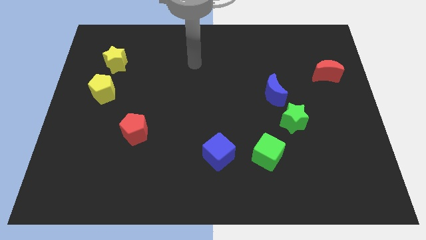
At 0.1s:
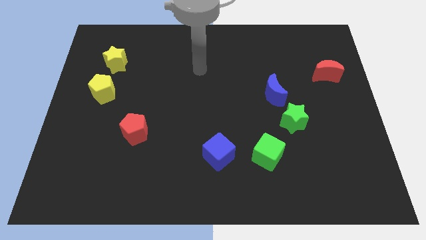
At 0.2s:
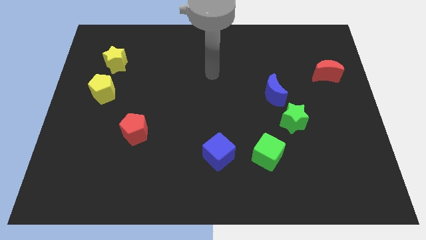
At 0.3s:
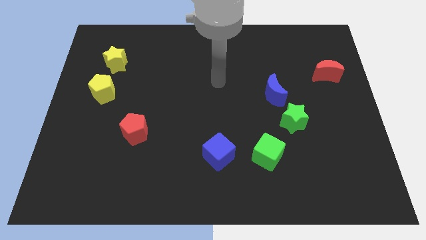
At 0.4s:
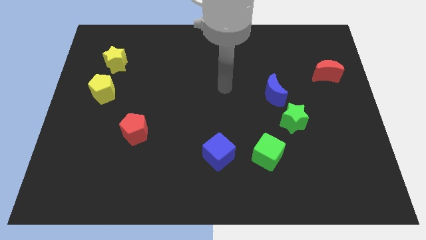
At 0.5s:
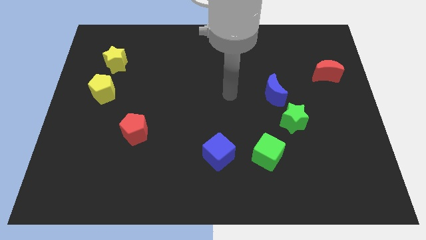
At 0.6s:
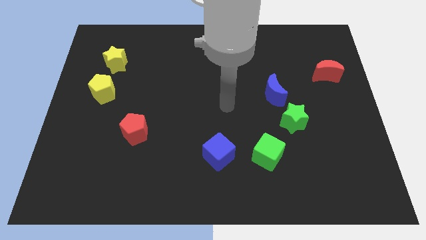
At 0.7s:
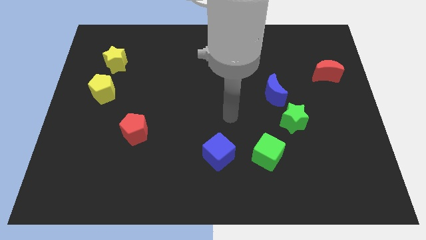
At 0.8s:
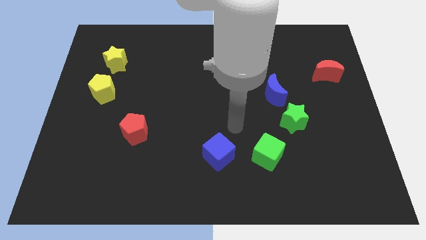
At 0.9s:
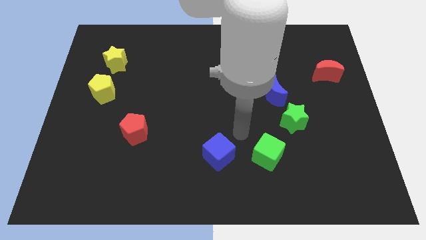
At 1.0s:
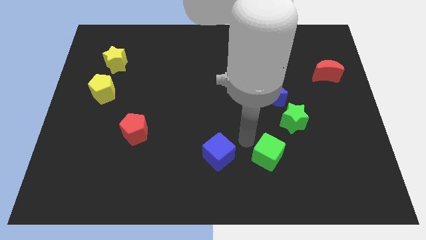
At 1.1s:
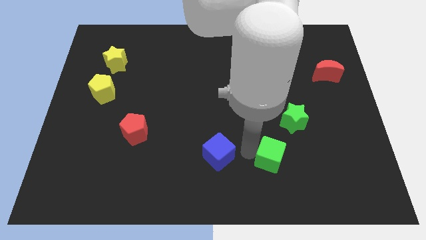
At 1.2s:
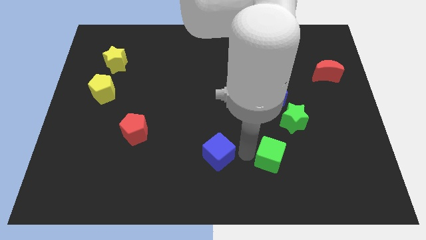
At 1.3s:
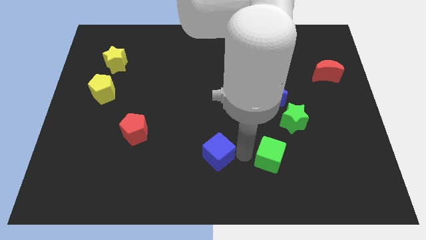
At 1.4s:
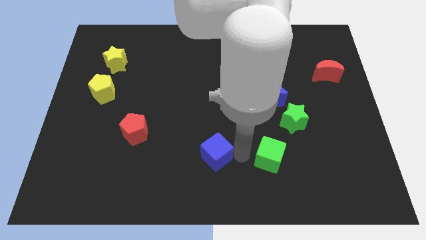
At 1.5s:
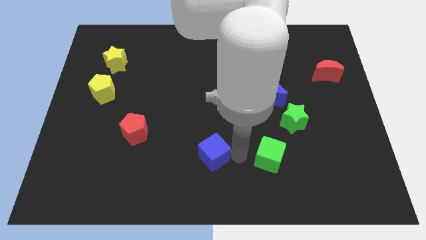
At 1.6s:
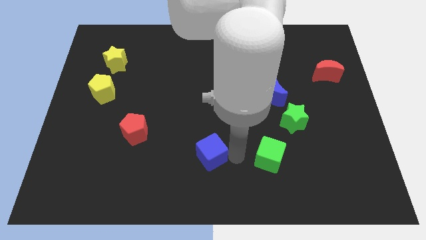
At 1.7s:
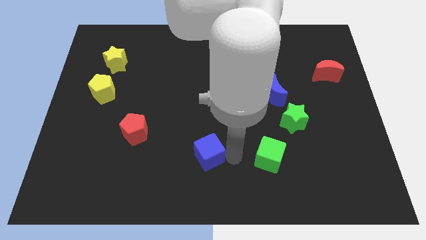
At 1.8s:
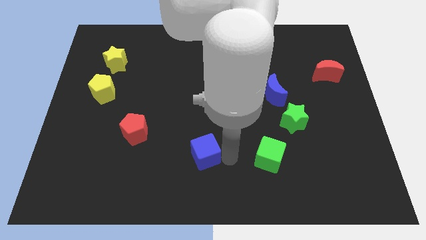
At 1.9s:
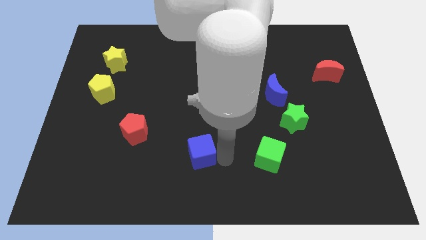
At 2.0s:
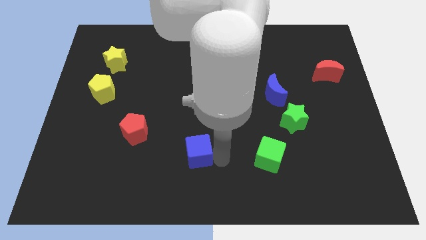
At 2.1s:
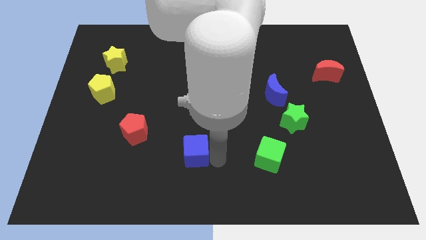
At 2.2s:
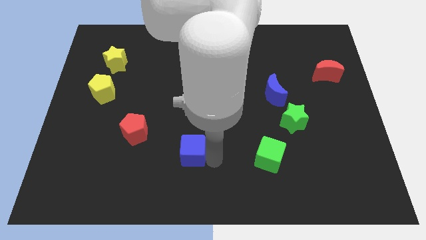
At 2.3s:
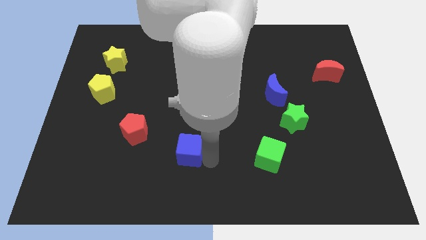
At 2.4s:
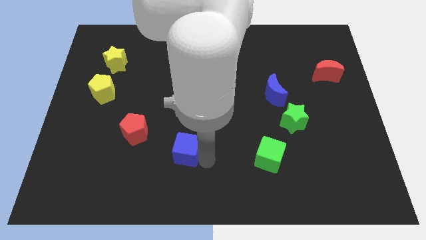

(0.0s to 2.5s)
slide the blue cube left slightly

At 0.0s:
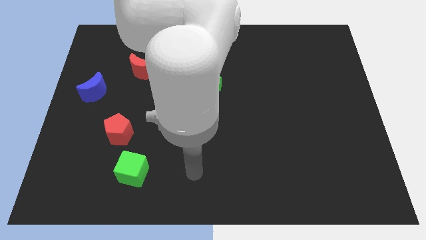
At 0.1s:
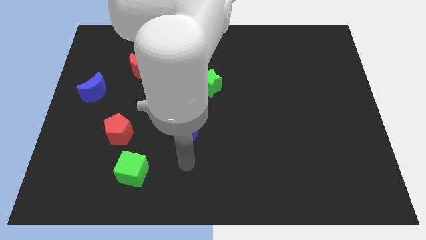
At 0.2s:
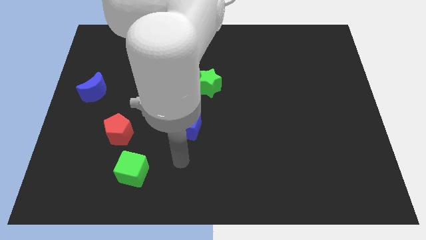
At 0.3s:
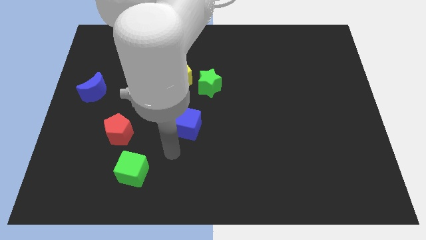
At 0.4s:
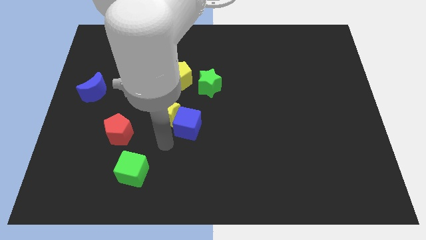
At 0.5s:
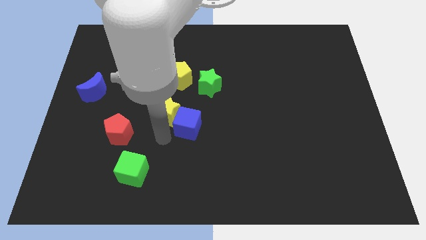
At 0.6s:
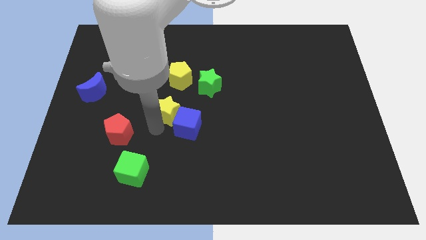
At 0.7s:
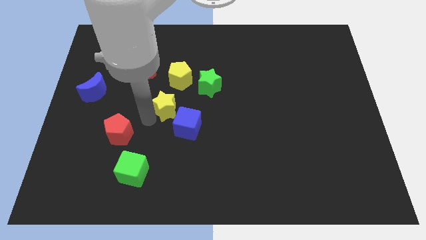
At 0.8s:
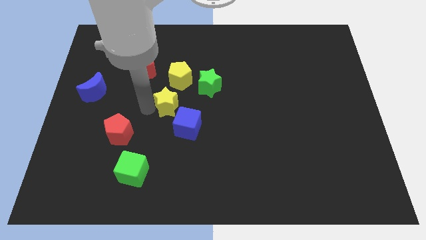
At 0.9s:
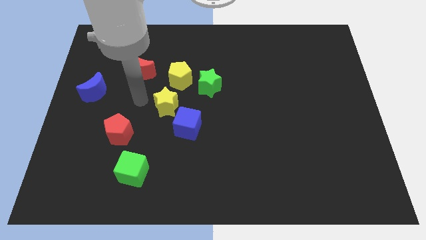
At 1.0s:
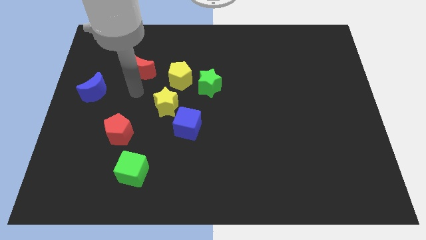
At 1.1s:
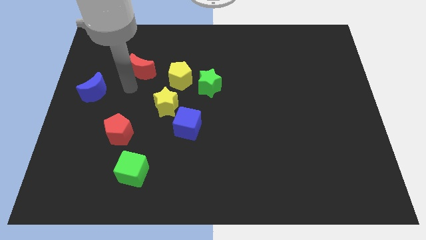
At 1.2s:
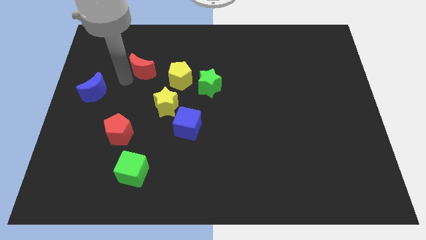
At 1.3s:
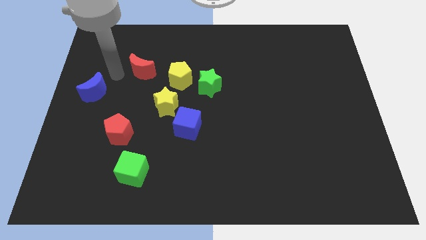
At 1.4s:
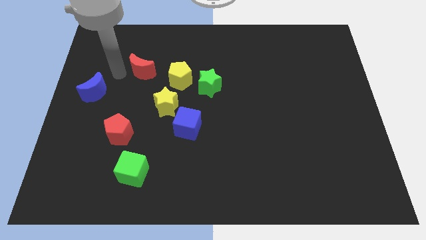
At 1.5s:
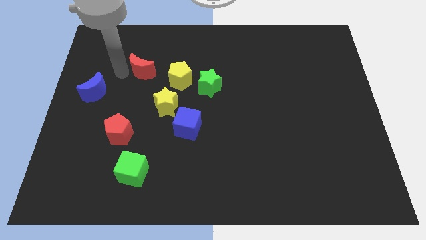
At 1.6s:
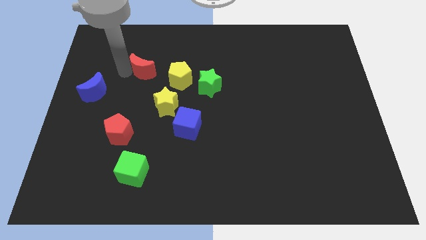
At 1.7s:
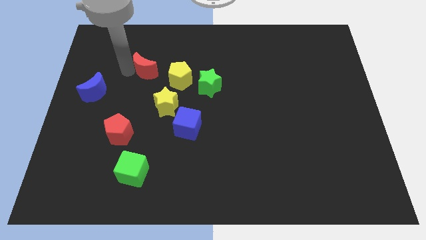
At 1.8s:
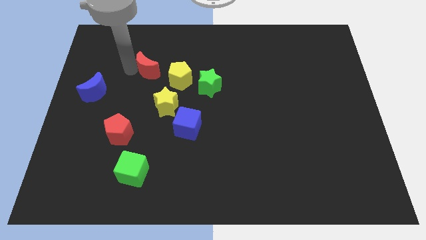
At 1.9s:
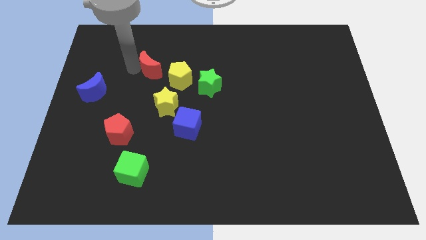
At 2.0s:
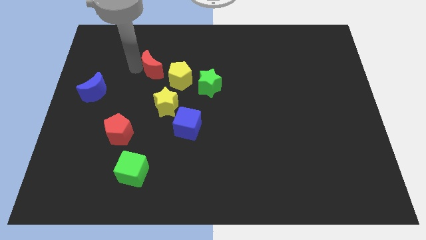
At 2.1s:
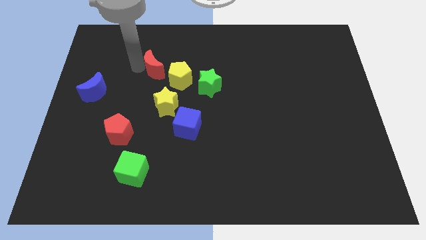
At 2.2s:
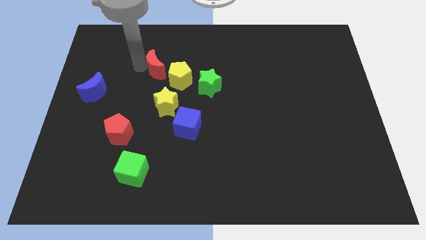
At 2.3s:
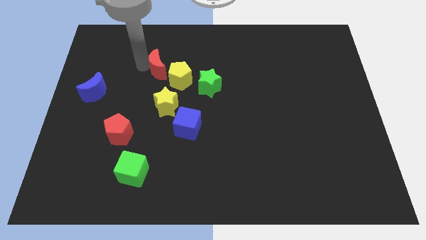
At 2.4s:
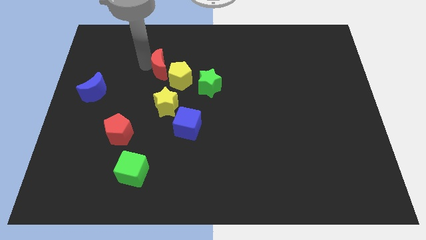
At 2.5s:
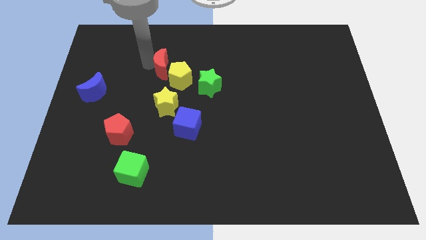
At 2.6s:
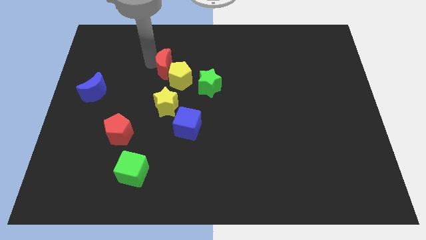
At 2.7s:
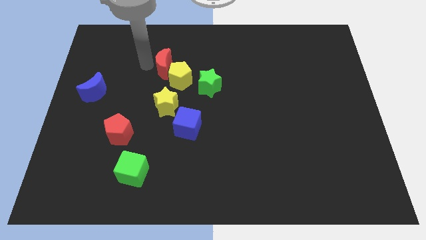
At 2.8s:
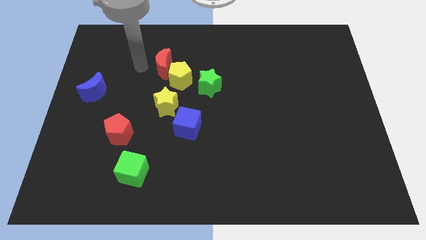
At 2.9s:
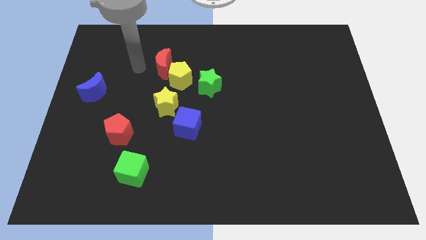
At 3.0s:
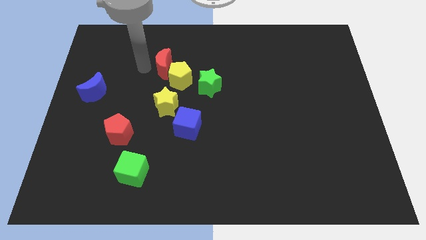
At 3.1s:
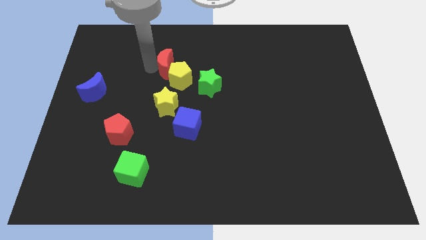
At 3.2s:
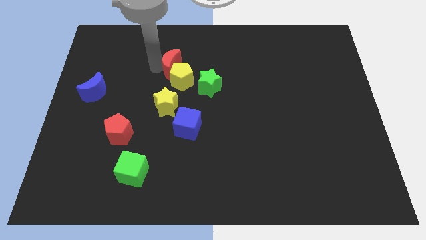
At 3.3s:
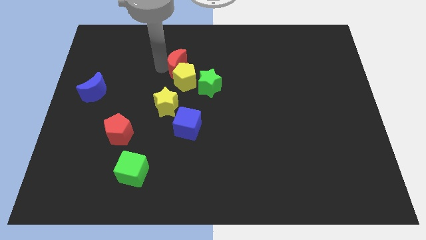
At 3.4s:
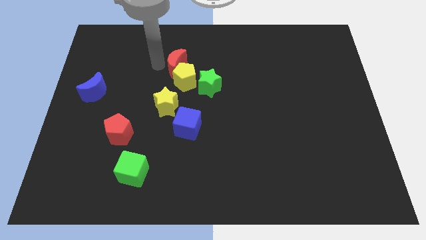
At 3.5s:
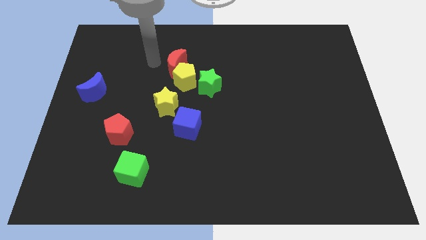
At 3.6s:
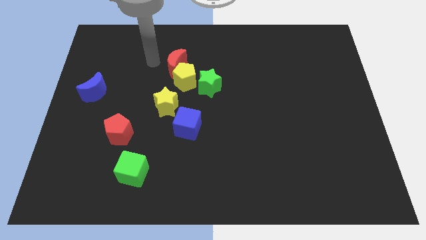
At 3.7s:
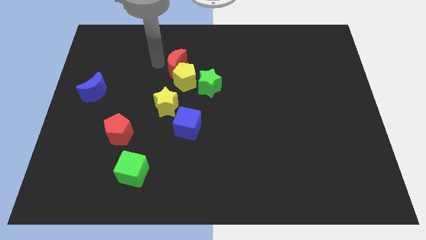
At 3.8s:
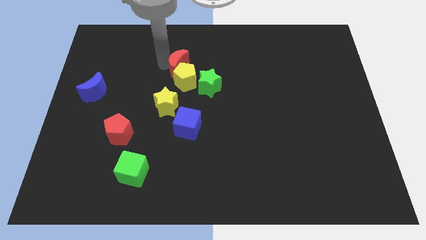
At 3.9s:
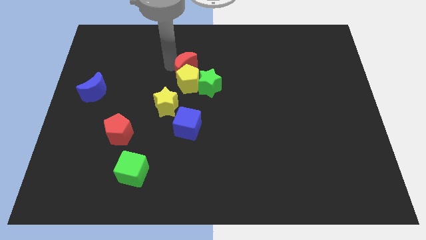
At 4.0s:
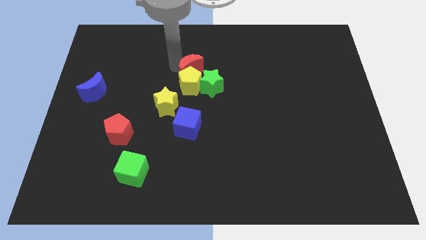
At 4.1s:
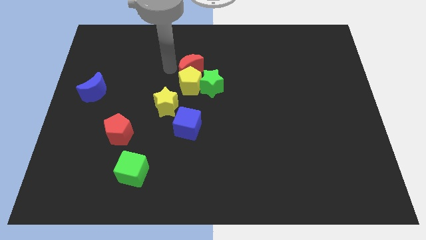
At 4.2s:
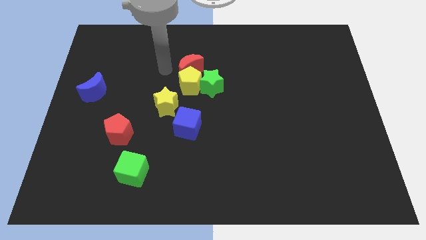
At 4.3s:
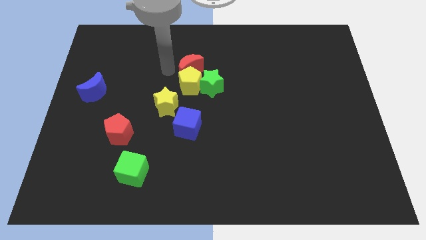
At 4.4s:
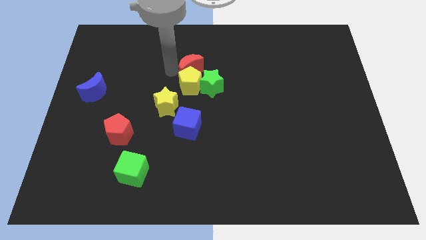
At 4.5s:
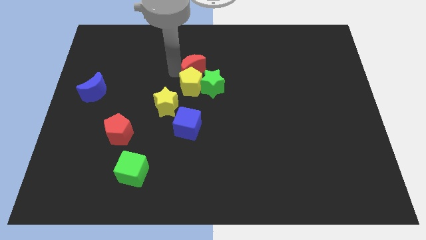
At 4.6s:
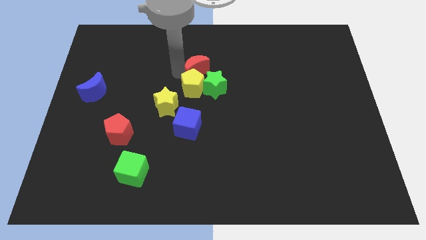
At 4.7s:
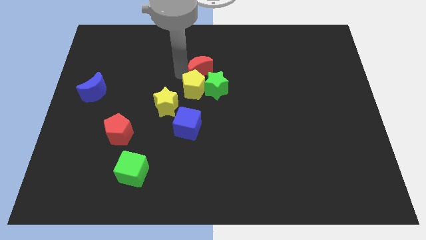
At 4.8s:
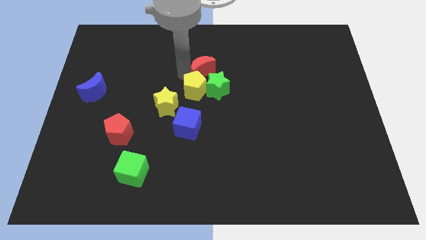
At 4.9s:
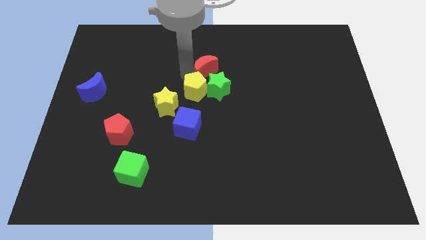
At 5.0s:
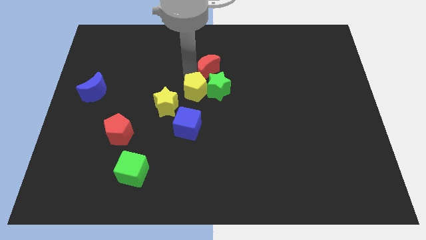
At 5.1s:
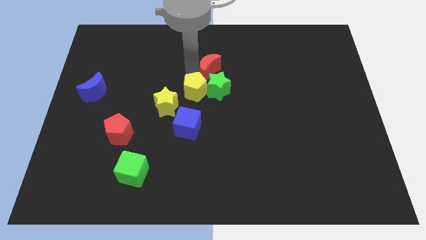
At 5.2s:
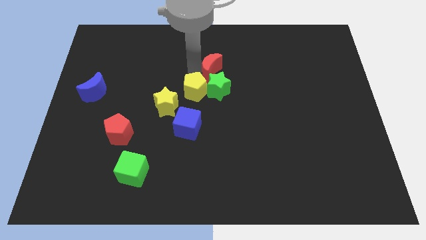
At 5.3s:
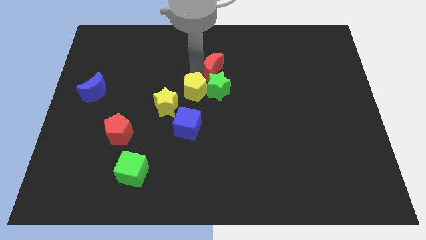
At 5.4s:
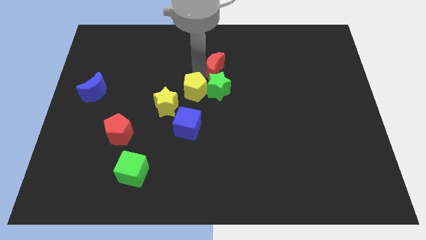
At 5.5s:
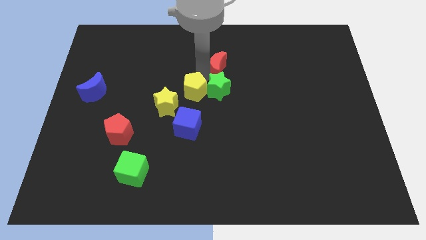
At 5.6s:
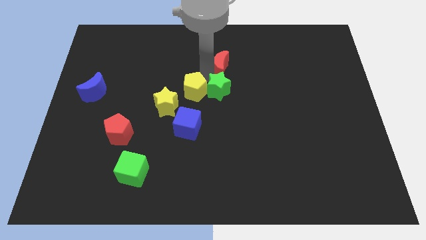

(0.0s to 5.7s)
push the red moon right
